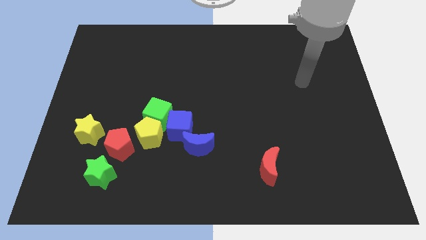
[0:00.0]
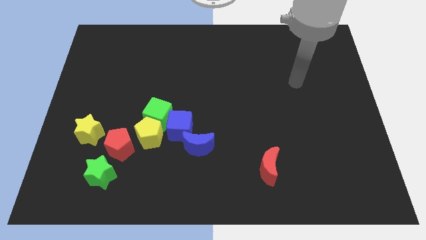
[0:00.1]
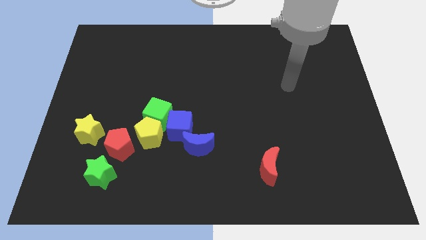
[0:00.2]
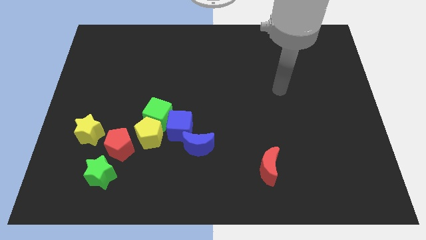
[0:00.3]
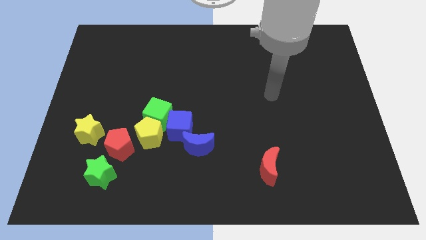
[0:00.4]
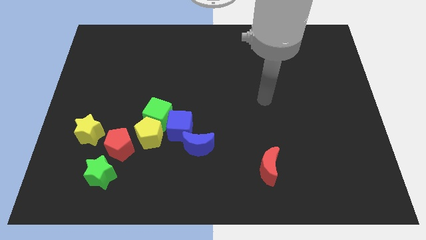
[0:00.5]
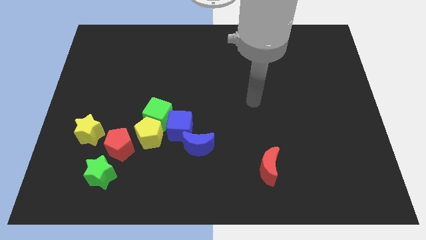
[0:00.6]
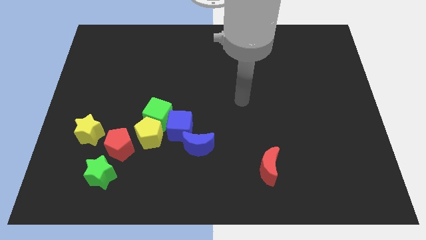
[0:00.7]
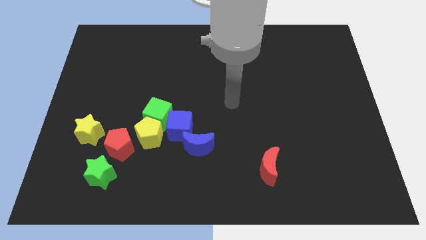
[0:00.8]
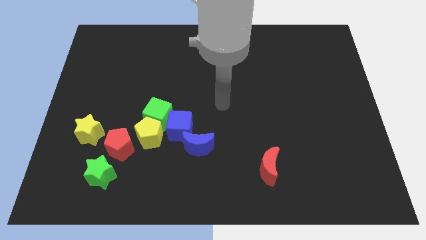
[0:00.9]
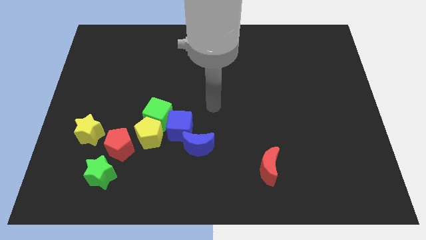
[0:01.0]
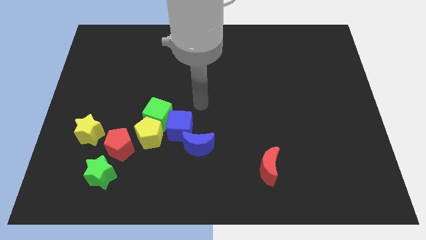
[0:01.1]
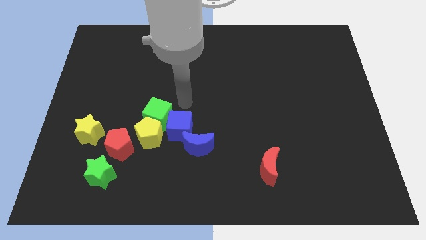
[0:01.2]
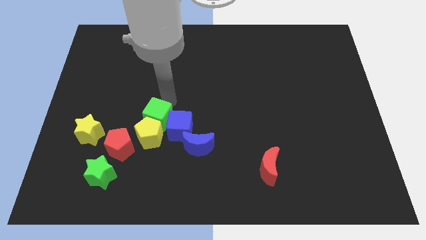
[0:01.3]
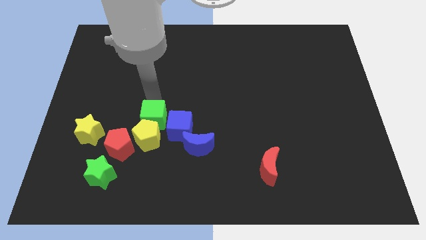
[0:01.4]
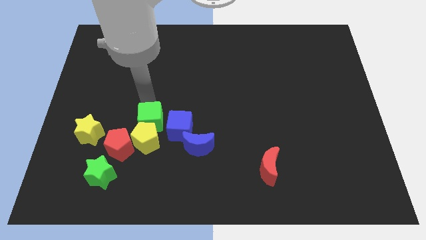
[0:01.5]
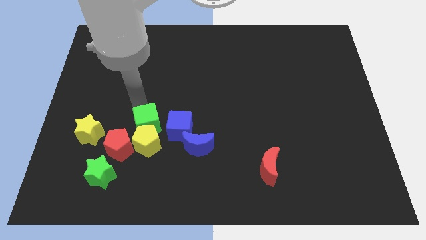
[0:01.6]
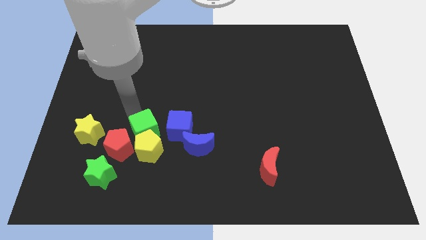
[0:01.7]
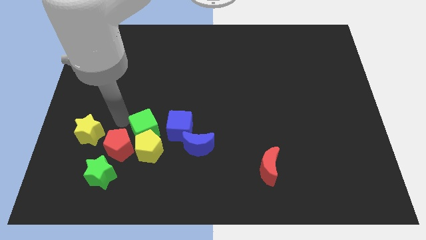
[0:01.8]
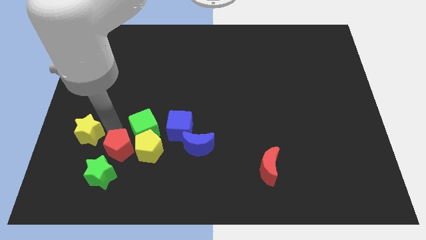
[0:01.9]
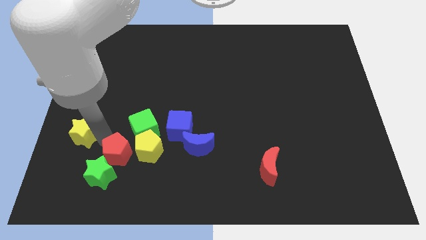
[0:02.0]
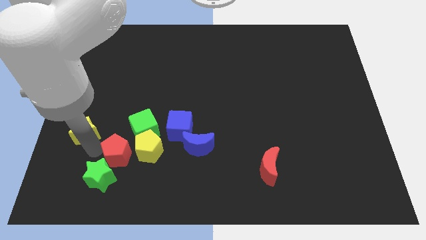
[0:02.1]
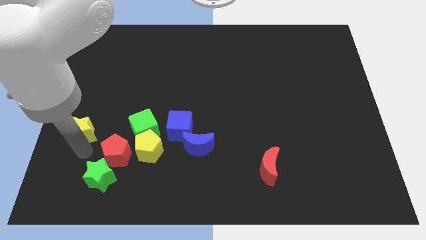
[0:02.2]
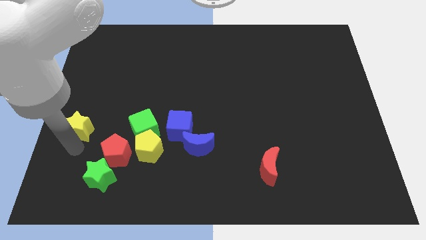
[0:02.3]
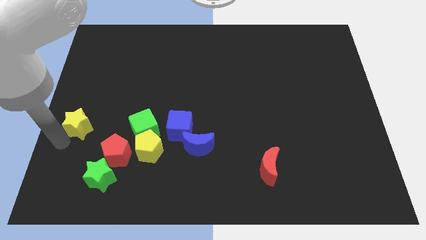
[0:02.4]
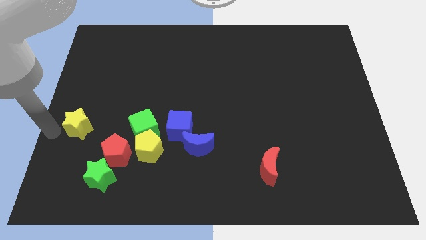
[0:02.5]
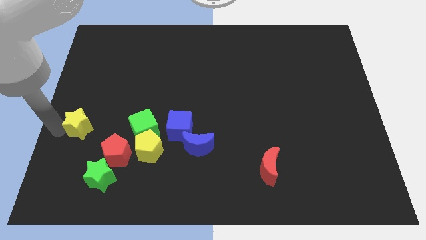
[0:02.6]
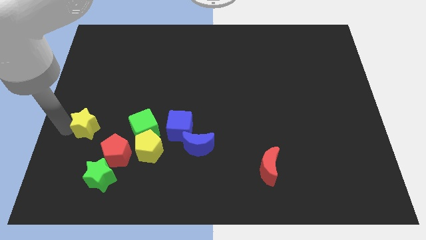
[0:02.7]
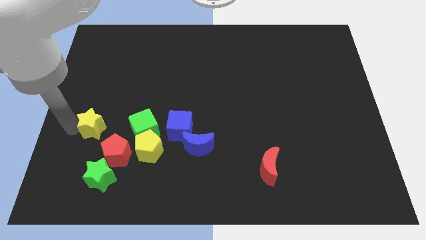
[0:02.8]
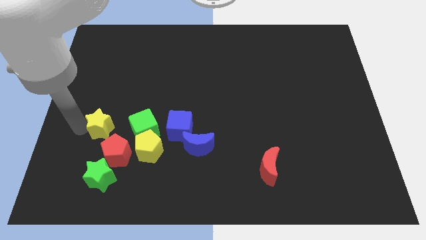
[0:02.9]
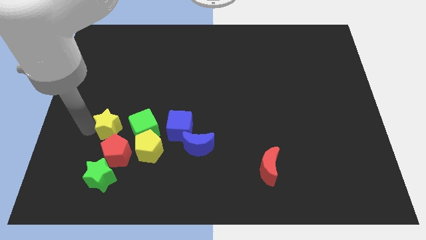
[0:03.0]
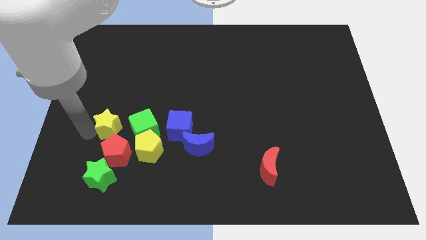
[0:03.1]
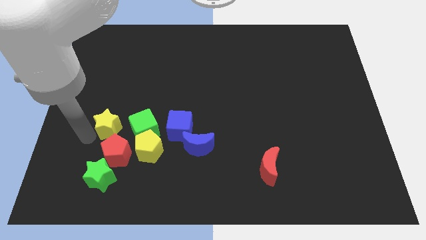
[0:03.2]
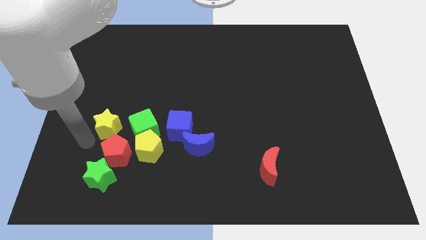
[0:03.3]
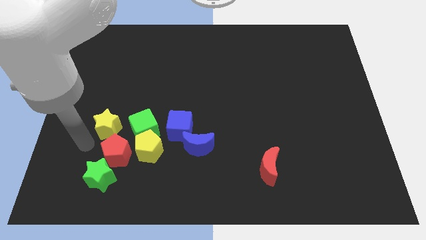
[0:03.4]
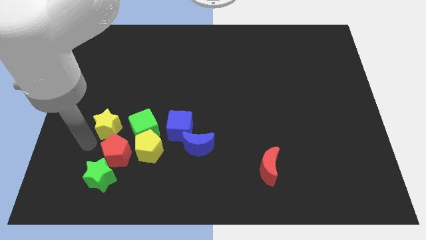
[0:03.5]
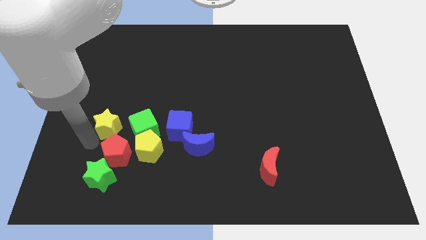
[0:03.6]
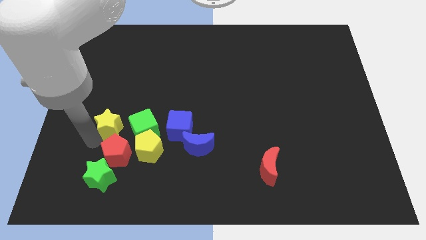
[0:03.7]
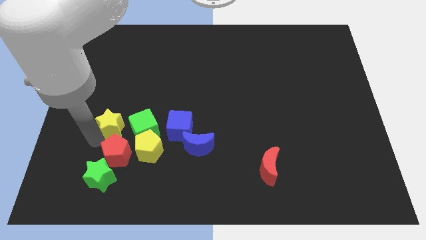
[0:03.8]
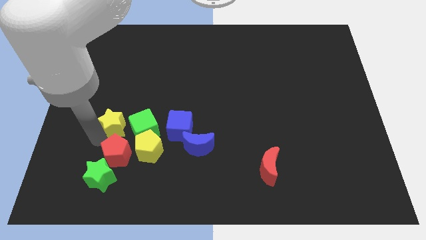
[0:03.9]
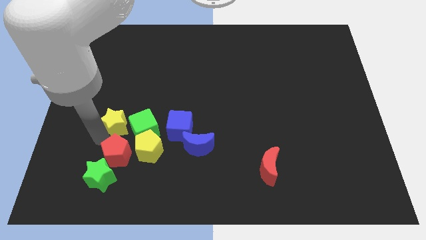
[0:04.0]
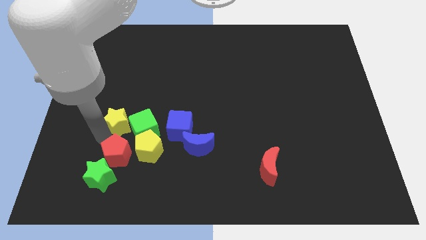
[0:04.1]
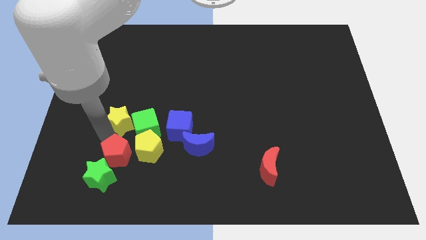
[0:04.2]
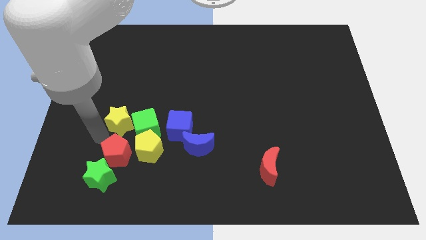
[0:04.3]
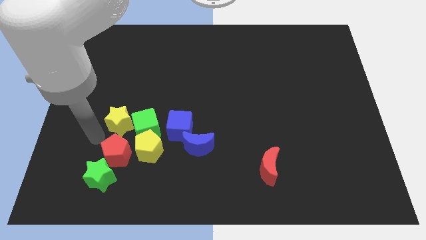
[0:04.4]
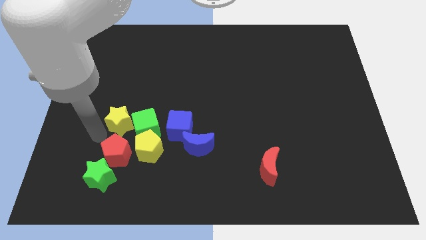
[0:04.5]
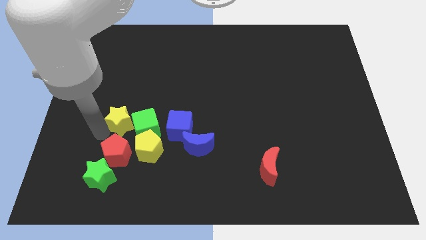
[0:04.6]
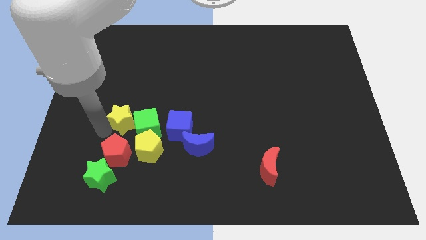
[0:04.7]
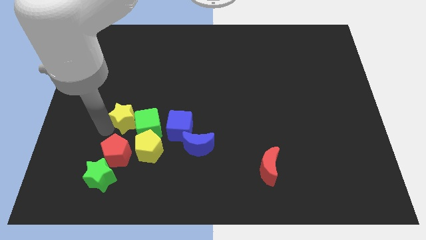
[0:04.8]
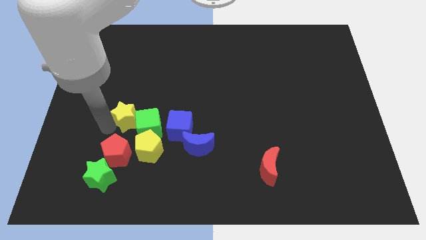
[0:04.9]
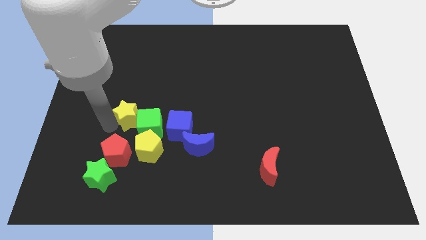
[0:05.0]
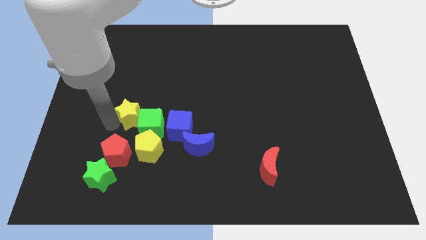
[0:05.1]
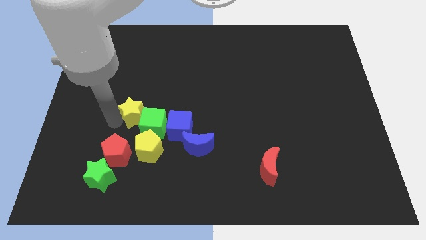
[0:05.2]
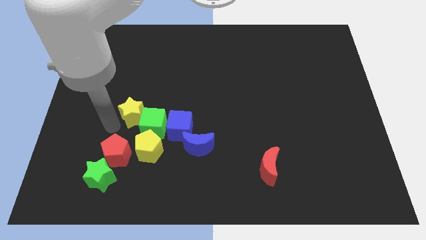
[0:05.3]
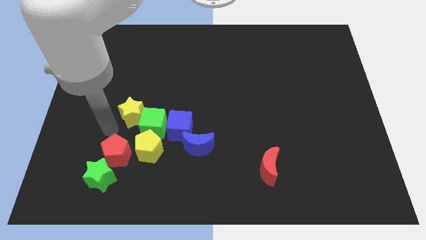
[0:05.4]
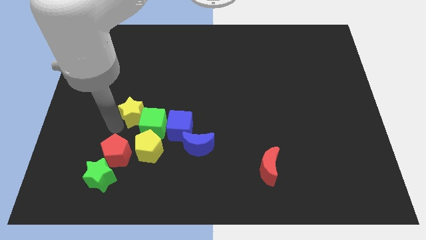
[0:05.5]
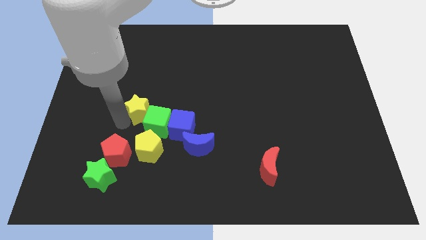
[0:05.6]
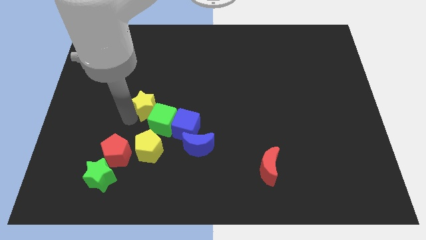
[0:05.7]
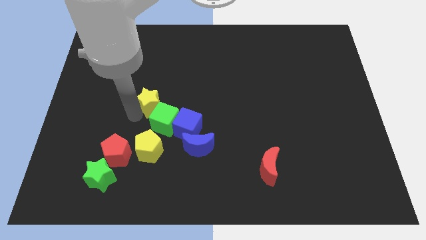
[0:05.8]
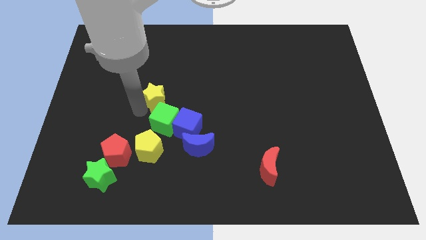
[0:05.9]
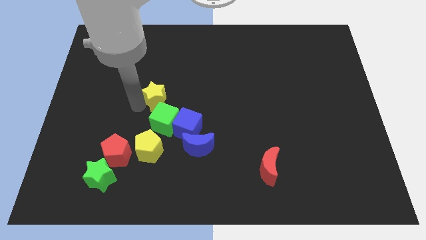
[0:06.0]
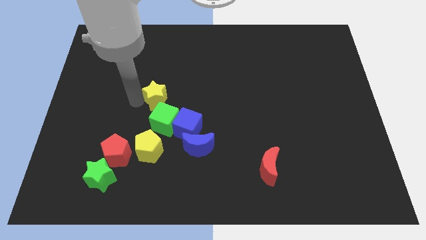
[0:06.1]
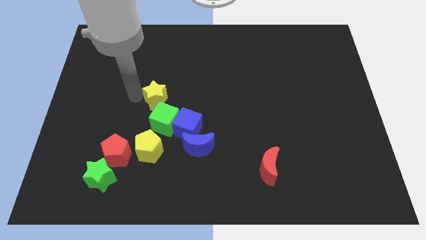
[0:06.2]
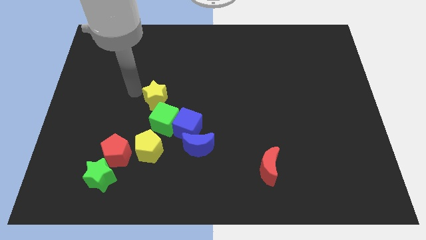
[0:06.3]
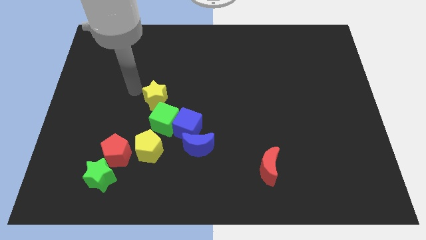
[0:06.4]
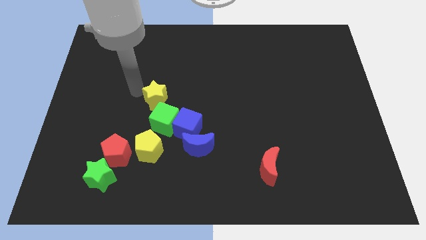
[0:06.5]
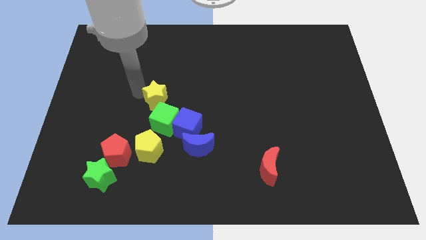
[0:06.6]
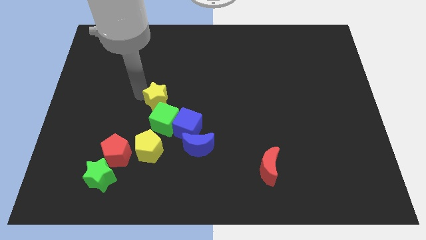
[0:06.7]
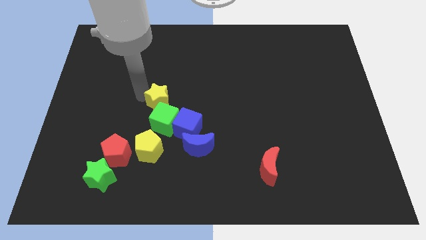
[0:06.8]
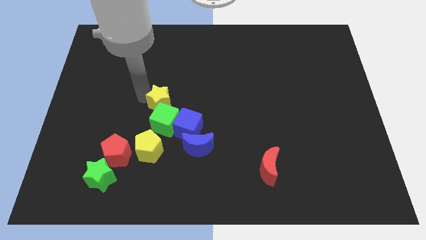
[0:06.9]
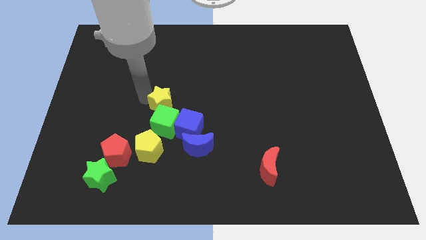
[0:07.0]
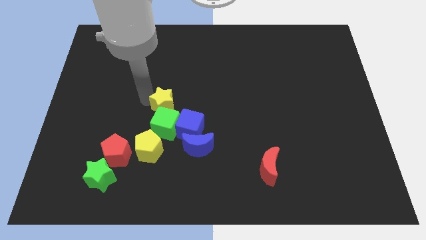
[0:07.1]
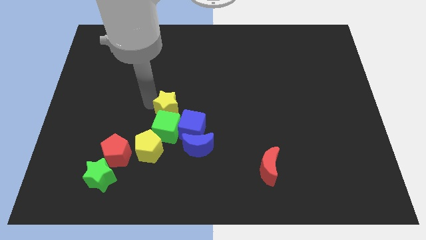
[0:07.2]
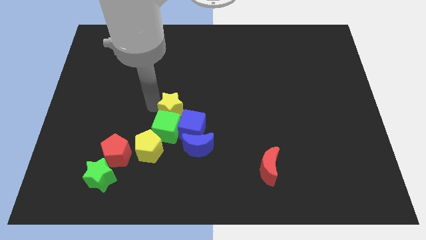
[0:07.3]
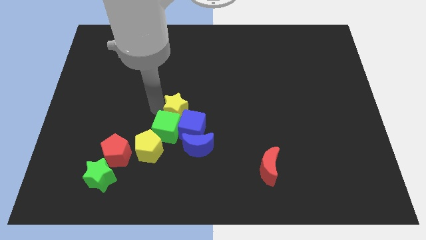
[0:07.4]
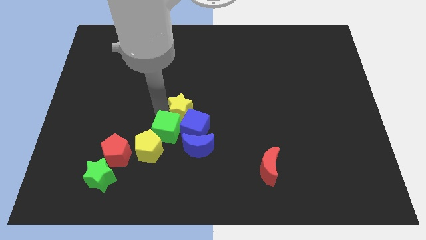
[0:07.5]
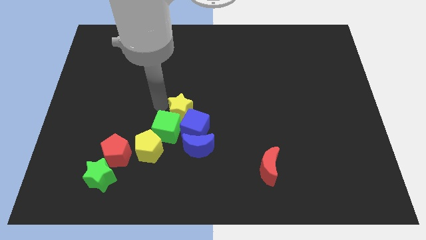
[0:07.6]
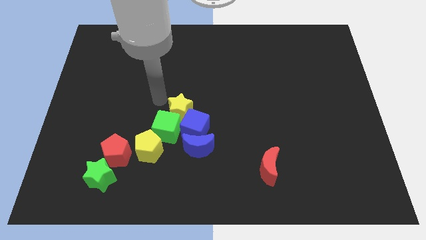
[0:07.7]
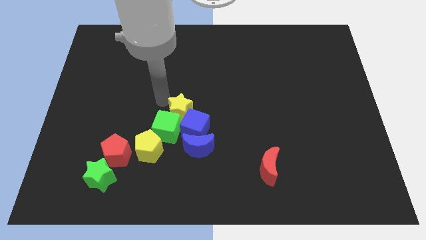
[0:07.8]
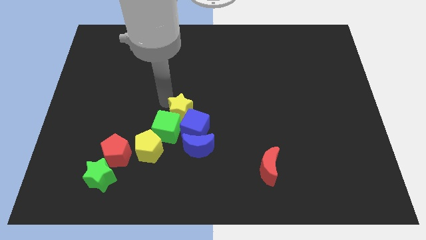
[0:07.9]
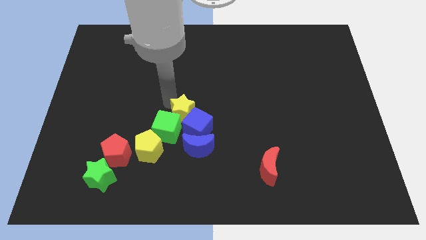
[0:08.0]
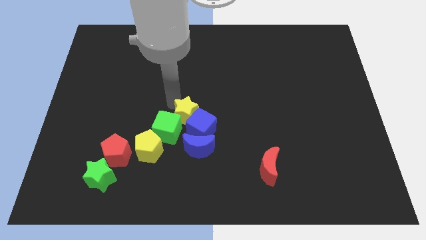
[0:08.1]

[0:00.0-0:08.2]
slide the yellow star just right of the green cube
